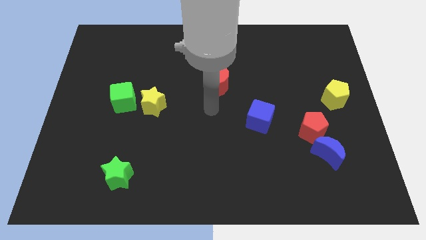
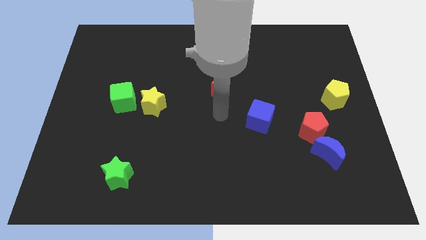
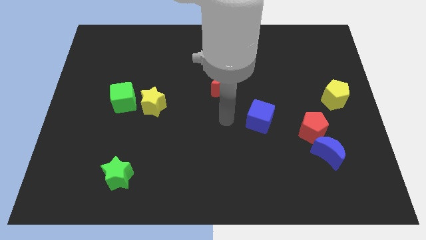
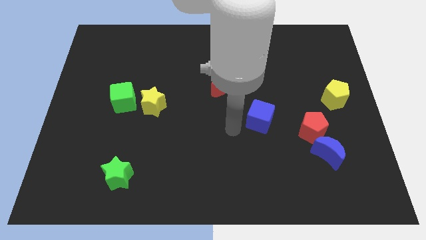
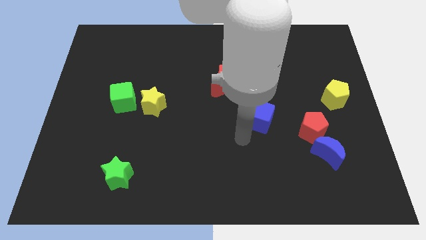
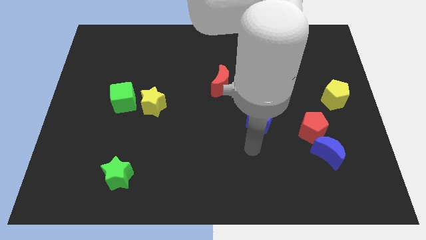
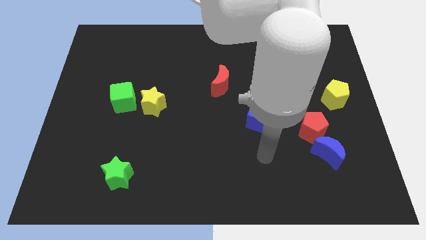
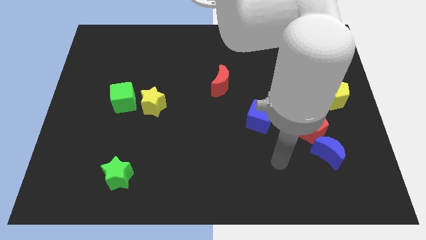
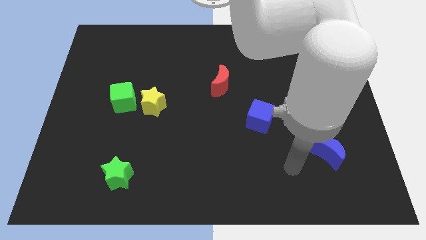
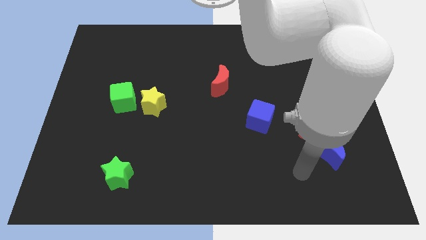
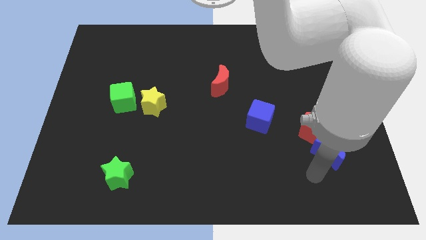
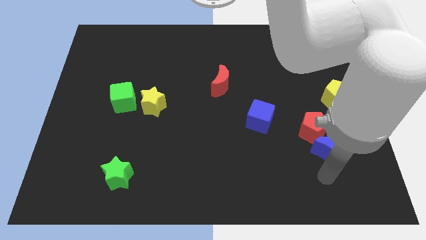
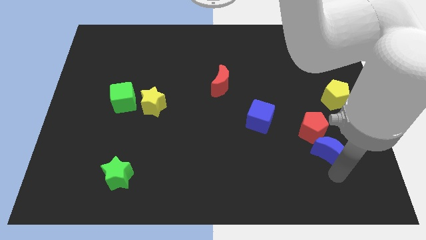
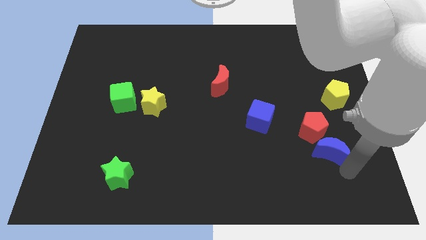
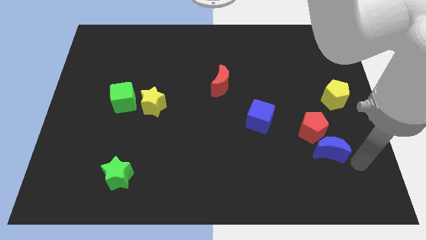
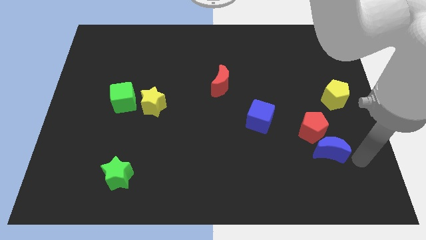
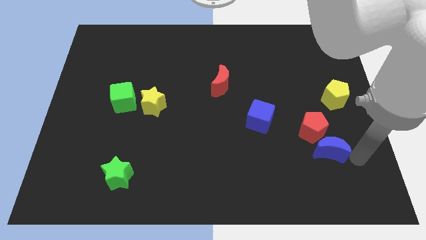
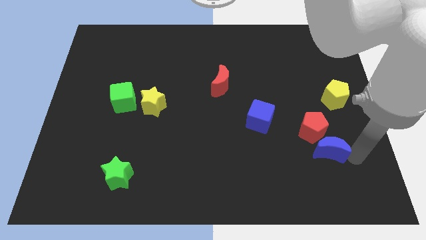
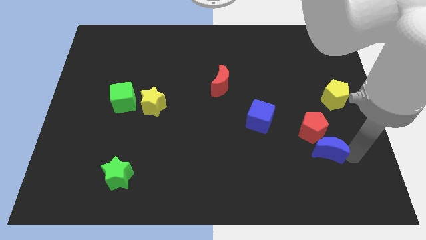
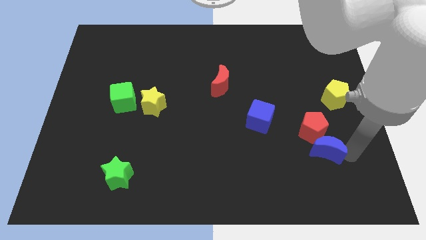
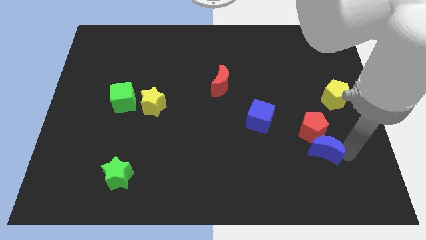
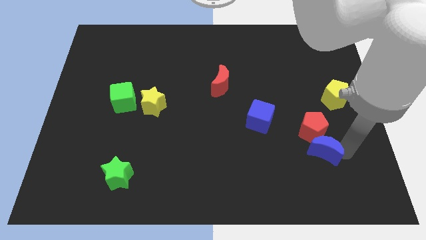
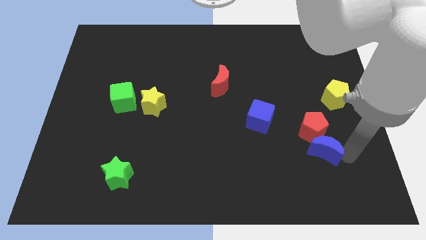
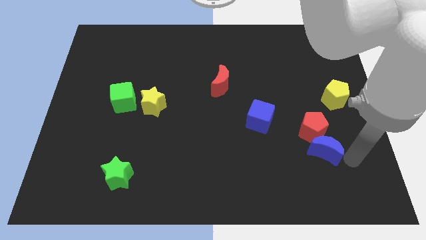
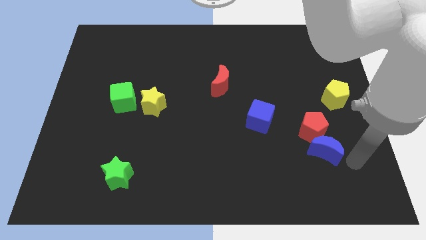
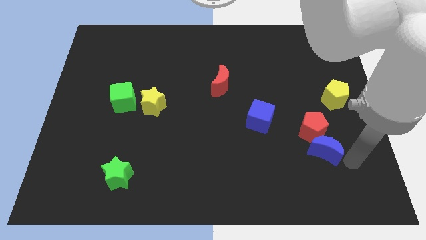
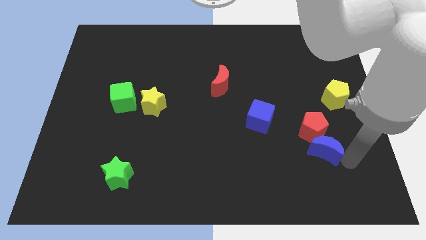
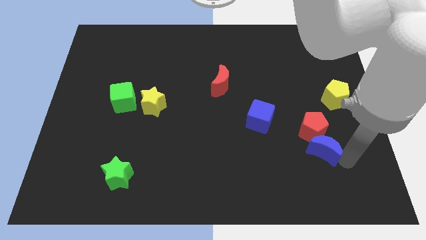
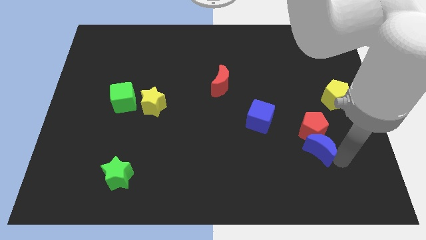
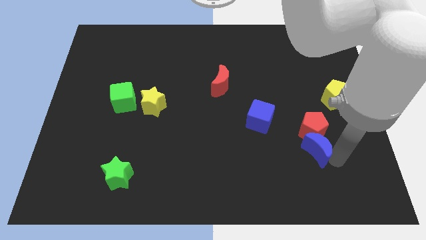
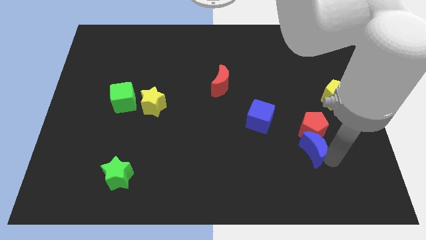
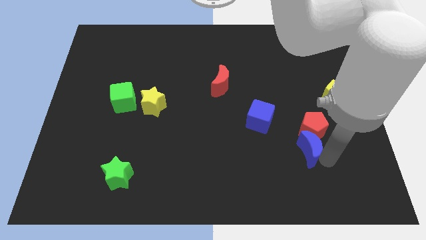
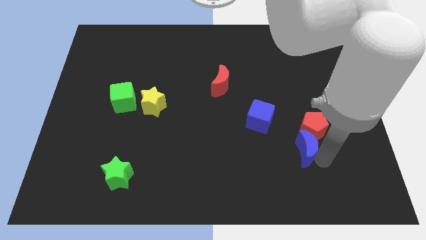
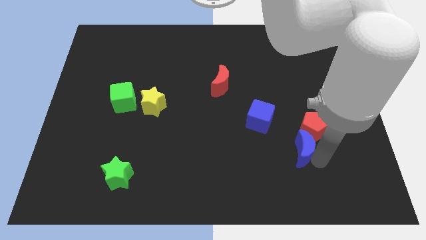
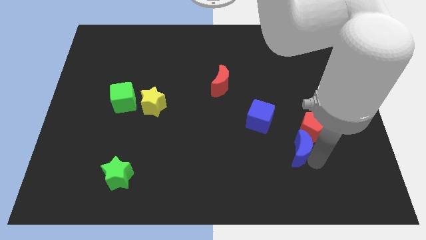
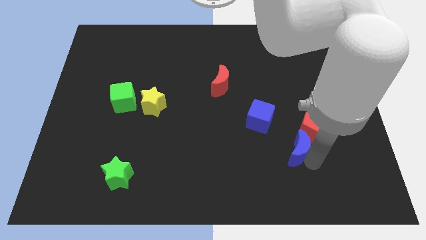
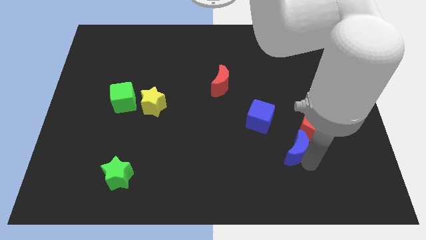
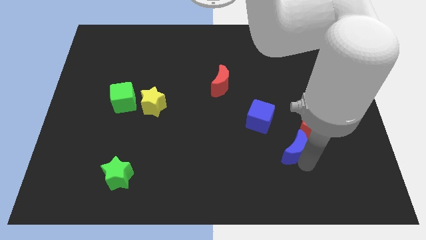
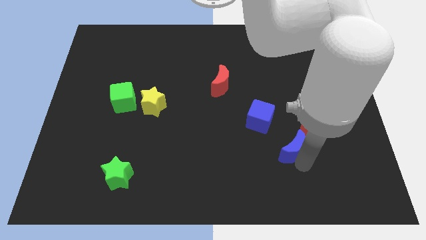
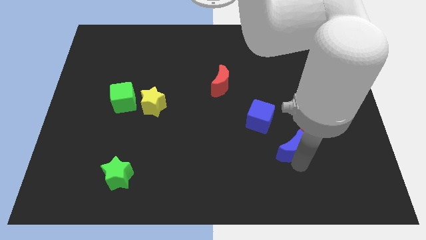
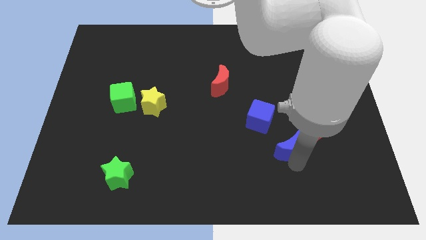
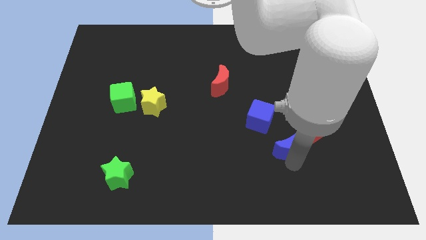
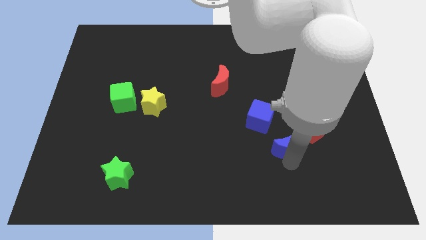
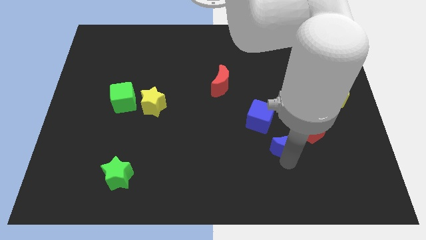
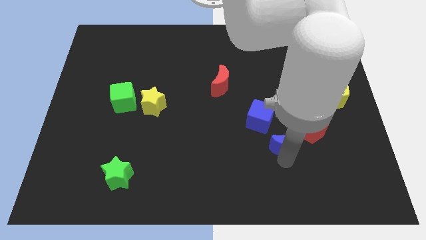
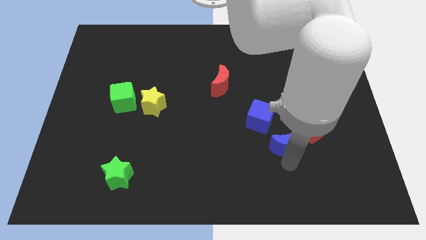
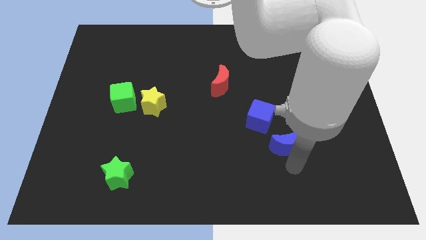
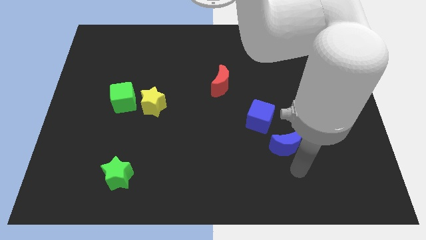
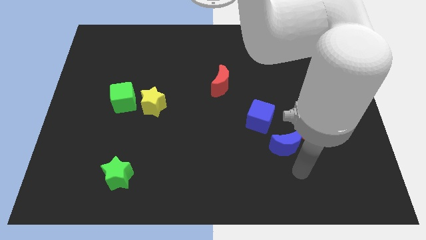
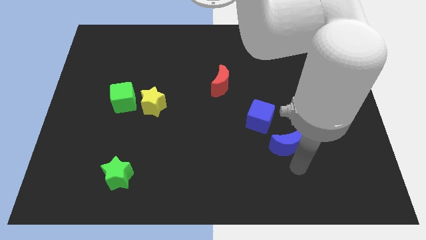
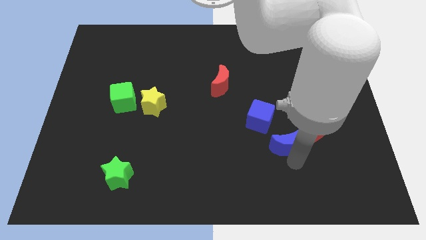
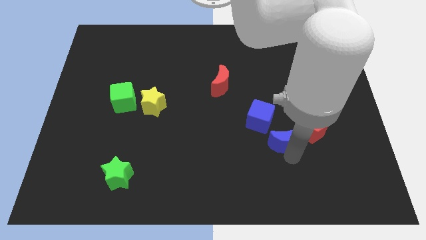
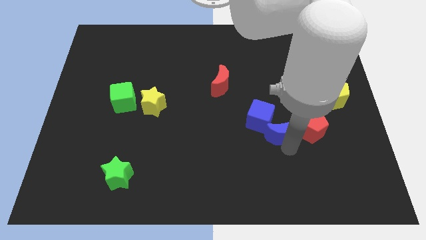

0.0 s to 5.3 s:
slide the blue moon towards the blue cube

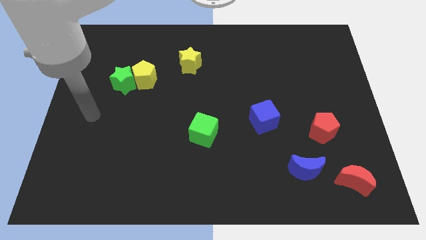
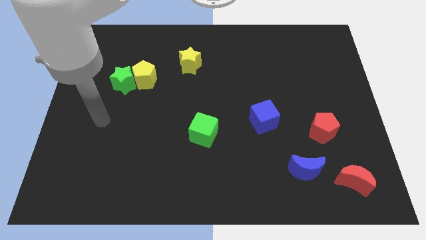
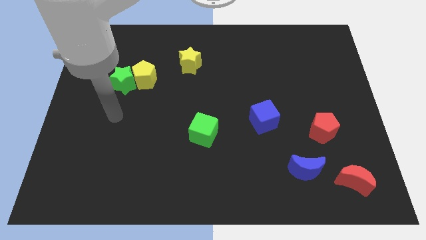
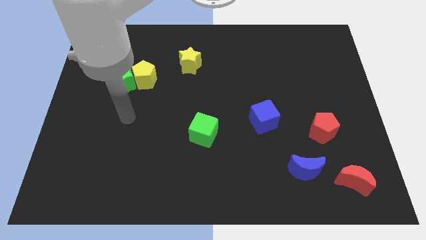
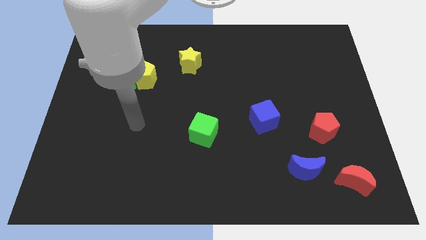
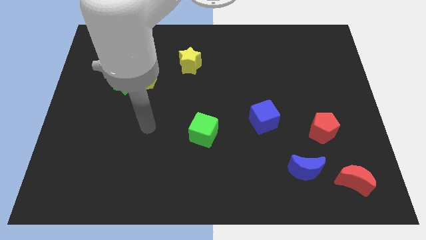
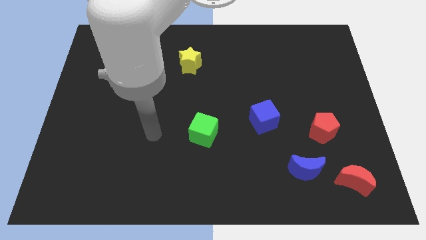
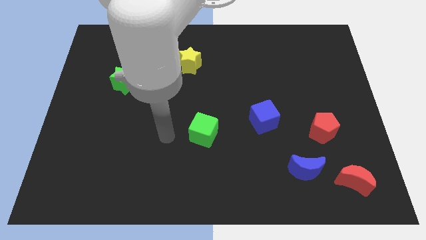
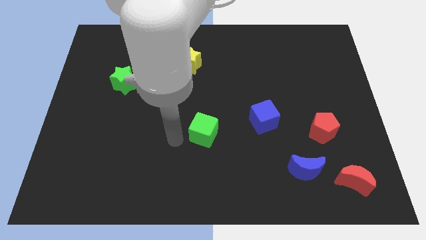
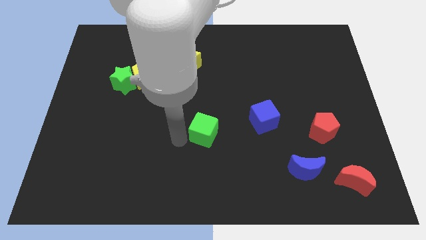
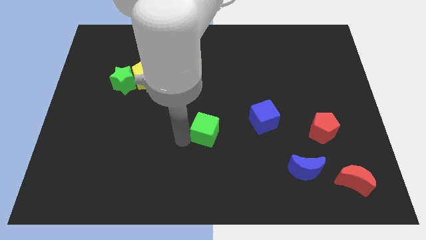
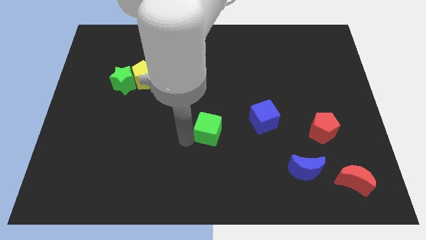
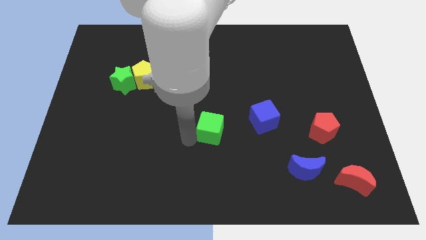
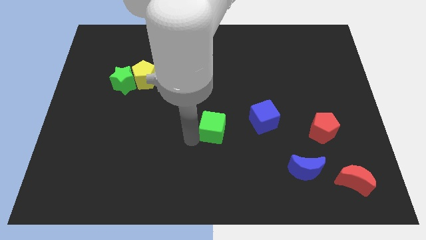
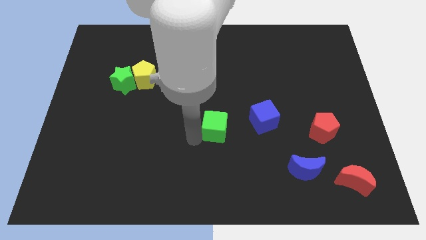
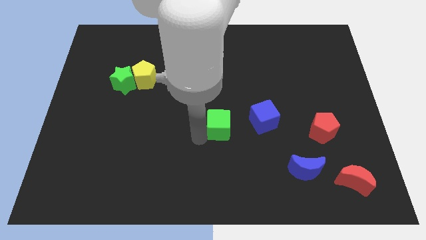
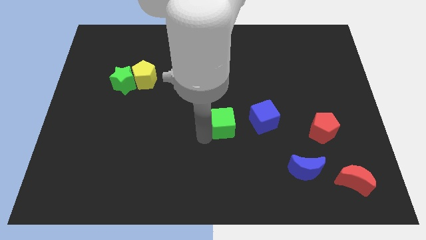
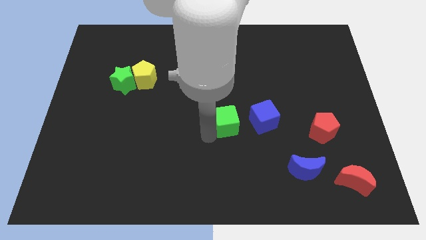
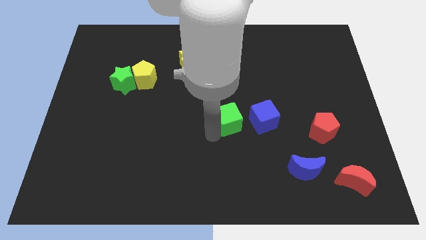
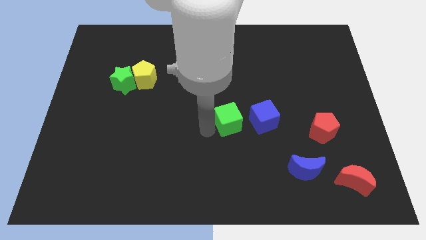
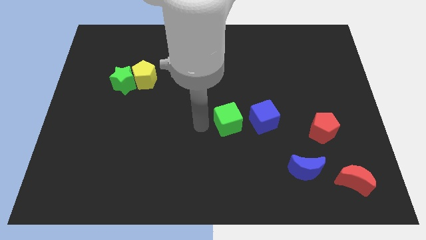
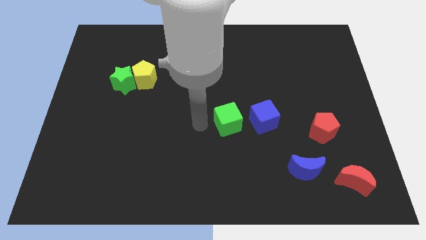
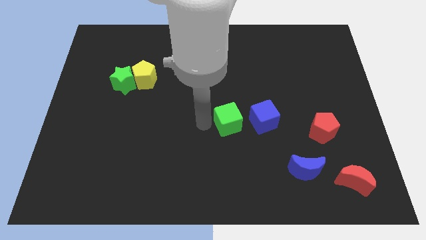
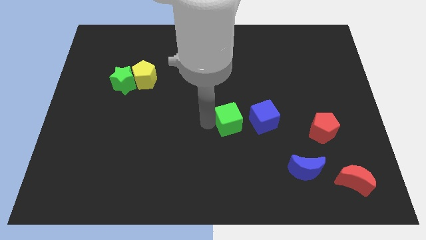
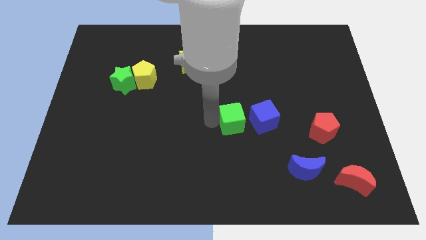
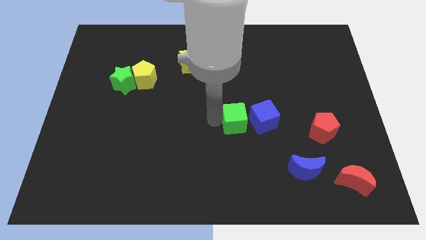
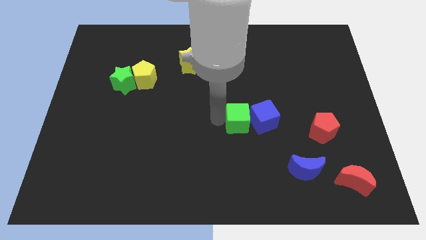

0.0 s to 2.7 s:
move the green cube close to the blue cube
